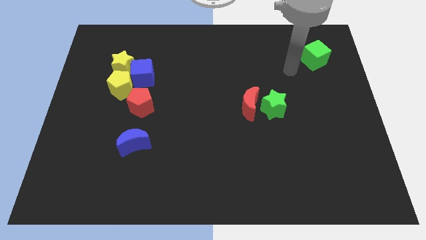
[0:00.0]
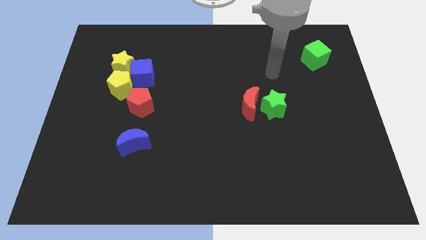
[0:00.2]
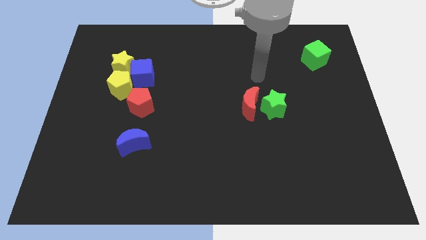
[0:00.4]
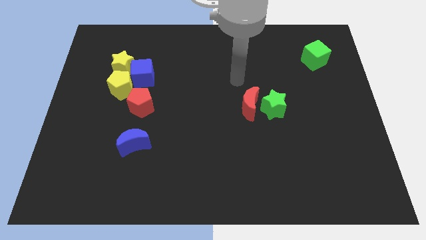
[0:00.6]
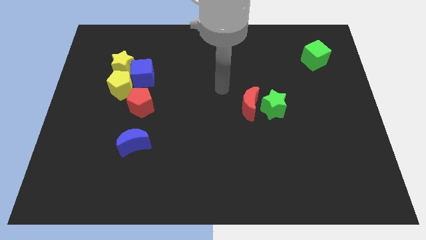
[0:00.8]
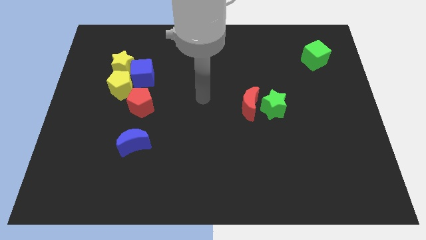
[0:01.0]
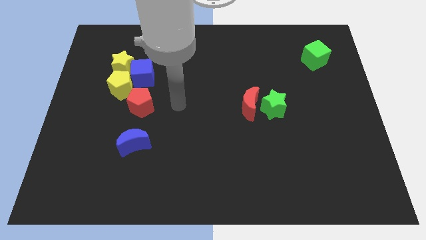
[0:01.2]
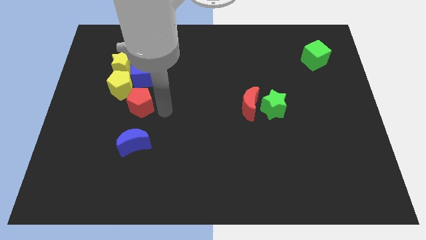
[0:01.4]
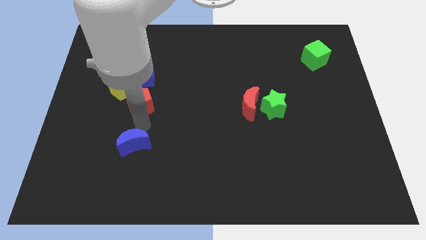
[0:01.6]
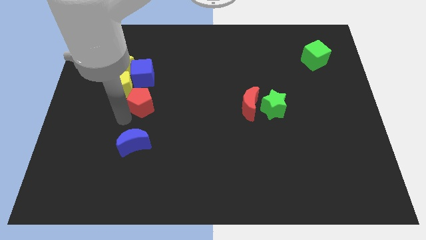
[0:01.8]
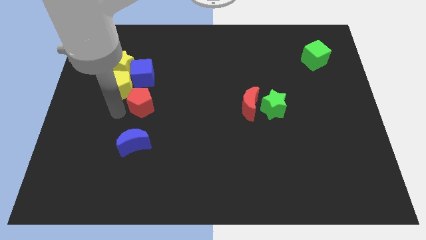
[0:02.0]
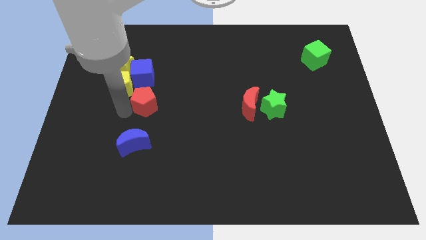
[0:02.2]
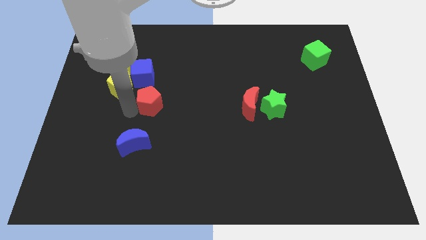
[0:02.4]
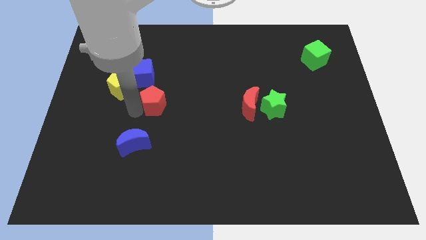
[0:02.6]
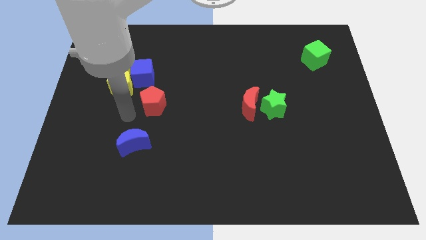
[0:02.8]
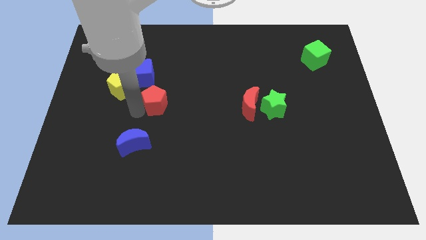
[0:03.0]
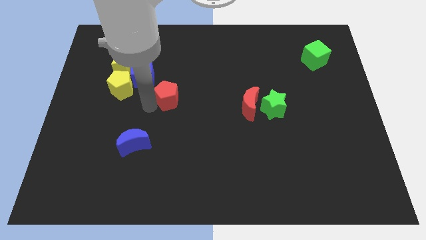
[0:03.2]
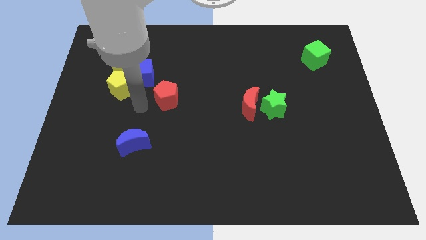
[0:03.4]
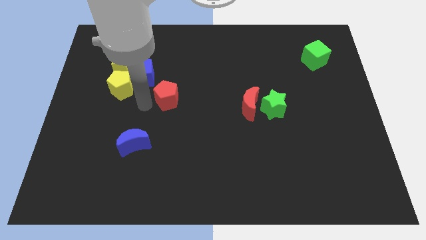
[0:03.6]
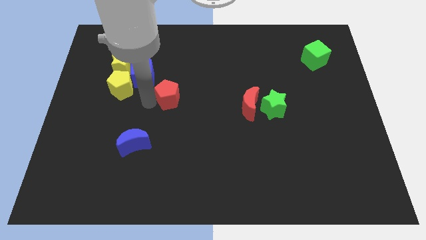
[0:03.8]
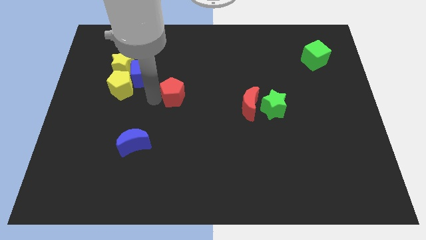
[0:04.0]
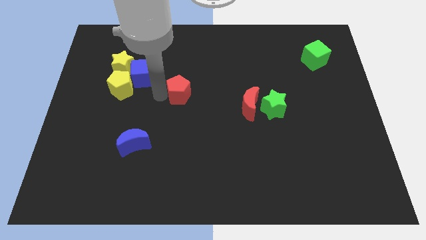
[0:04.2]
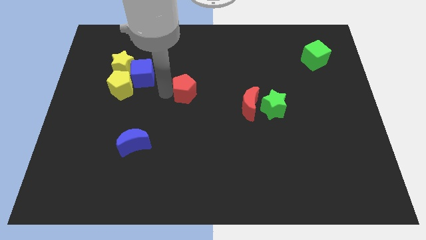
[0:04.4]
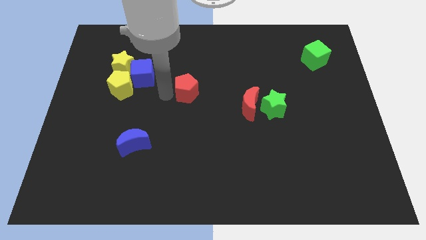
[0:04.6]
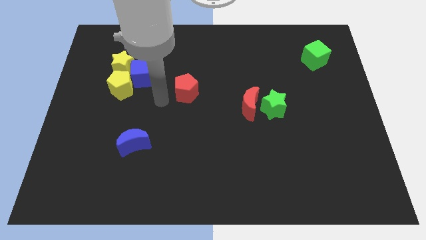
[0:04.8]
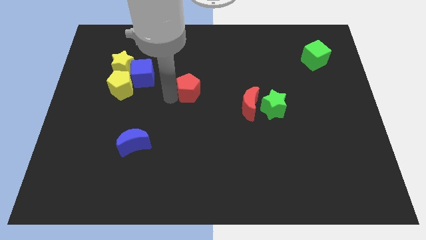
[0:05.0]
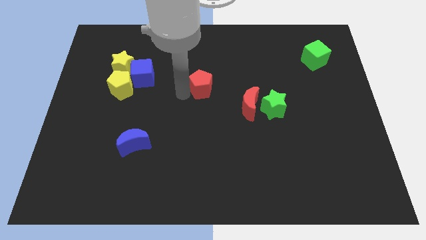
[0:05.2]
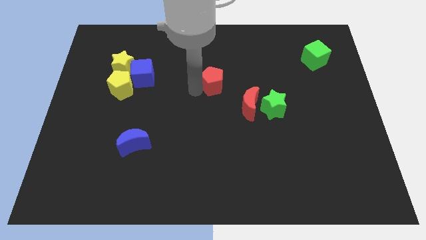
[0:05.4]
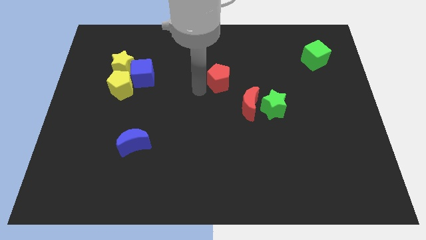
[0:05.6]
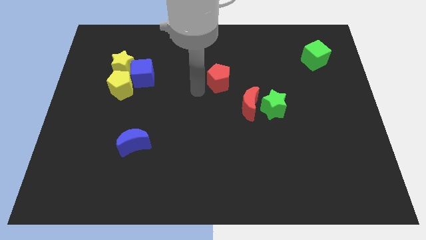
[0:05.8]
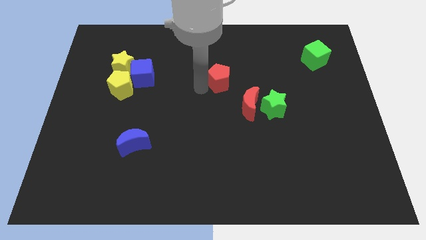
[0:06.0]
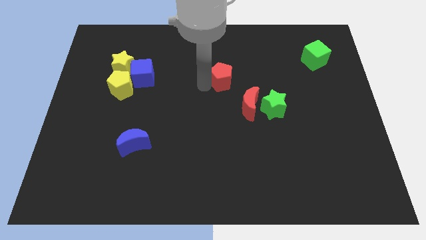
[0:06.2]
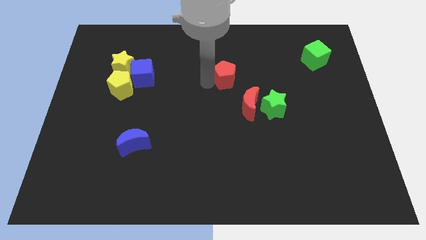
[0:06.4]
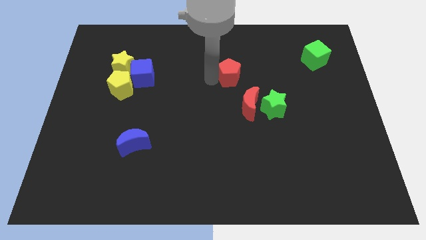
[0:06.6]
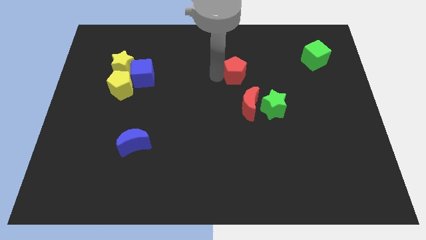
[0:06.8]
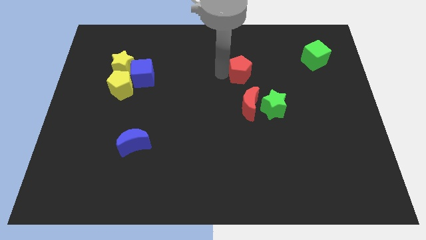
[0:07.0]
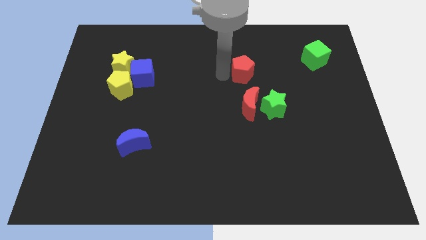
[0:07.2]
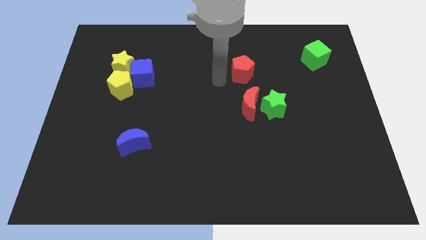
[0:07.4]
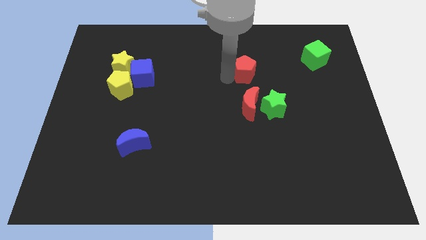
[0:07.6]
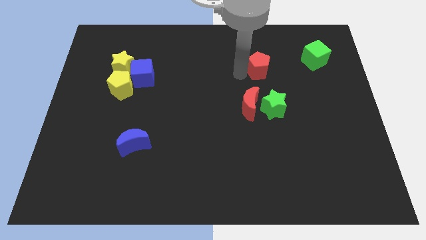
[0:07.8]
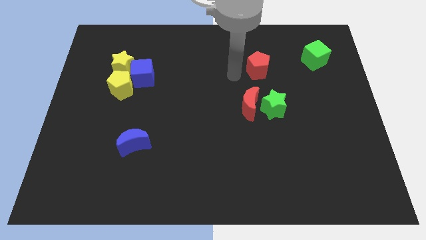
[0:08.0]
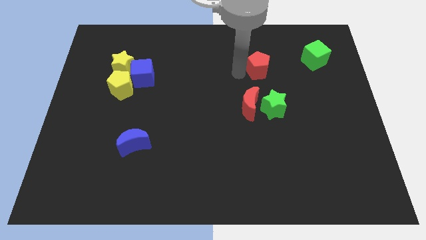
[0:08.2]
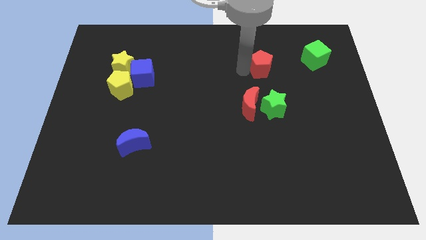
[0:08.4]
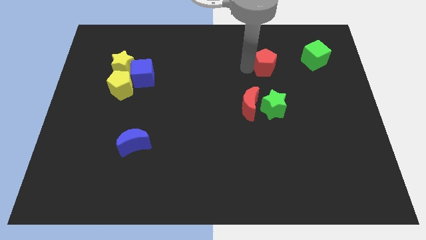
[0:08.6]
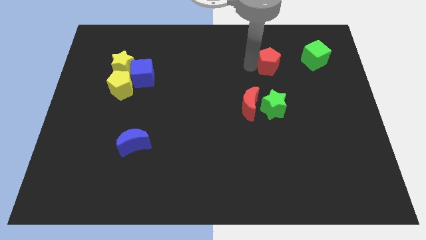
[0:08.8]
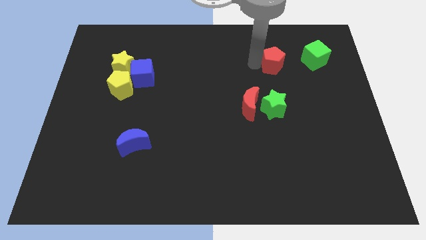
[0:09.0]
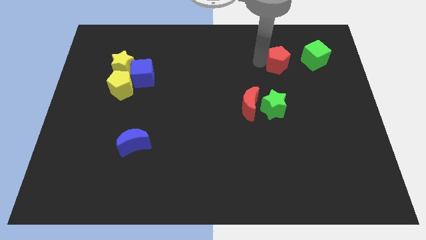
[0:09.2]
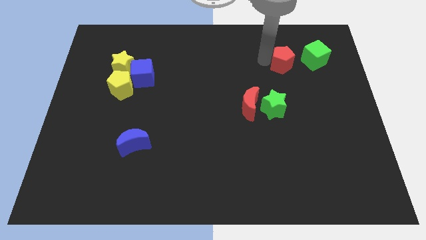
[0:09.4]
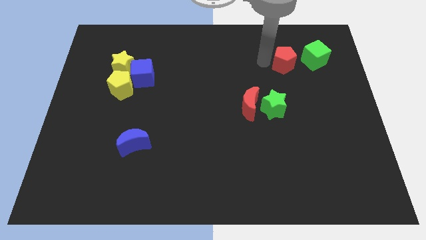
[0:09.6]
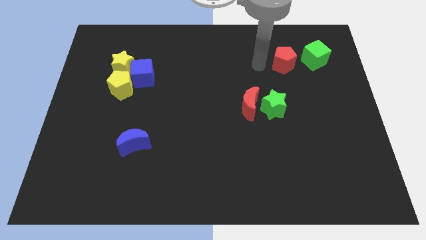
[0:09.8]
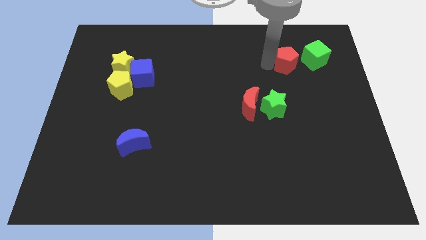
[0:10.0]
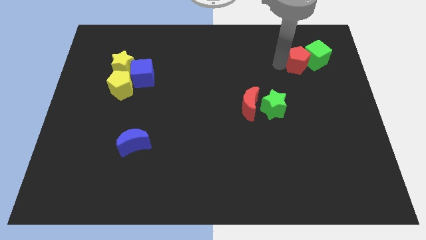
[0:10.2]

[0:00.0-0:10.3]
put the red pentagon next to the green cube

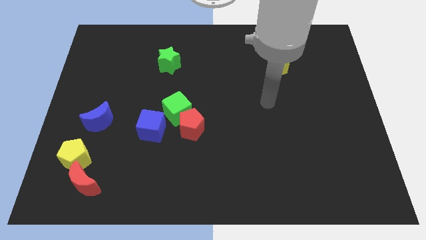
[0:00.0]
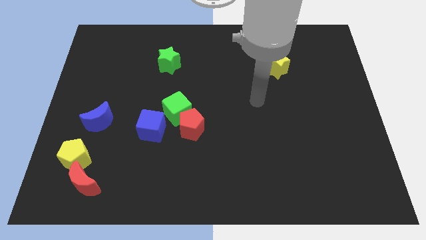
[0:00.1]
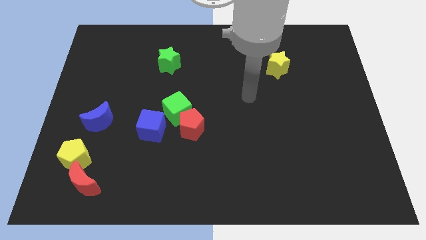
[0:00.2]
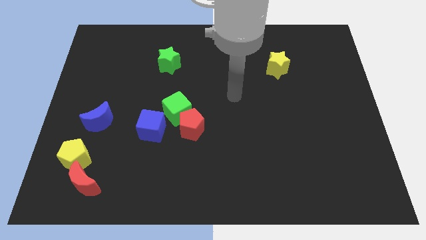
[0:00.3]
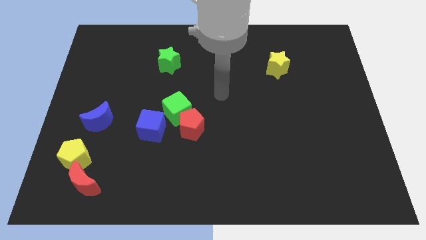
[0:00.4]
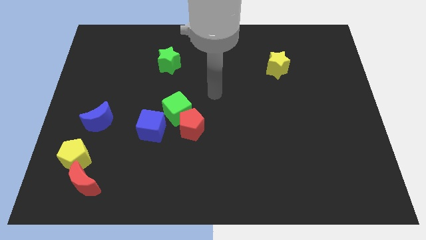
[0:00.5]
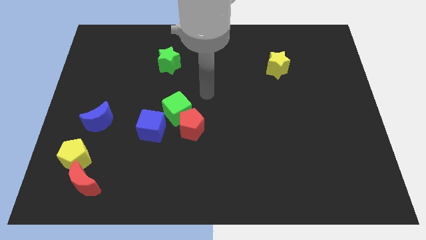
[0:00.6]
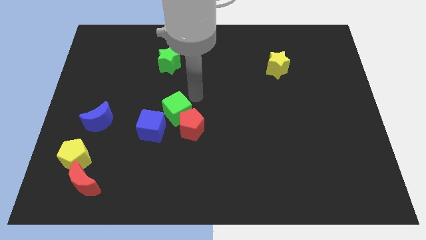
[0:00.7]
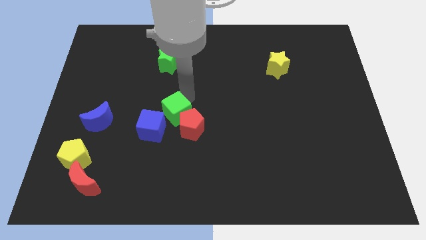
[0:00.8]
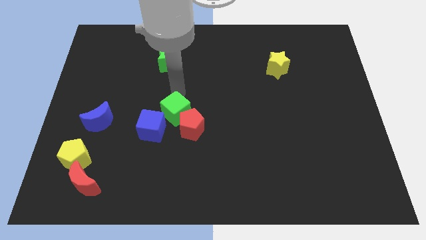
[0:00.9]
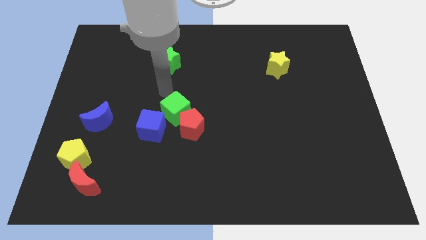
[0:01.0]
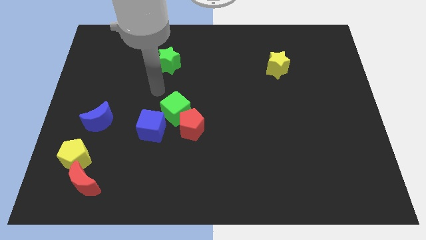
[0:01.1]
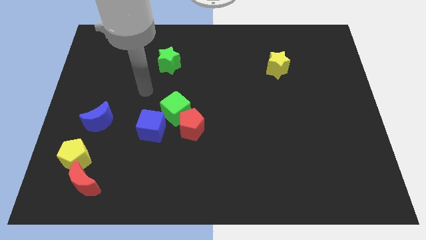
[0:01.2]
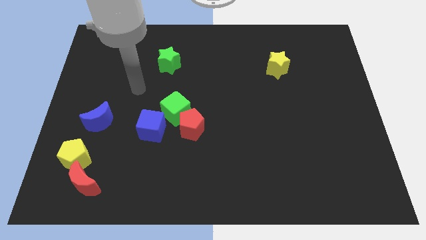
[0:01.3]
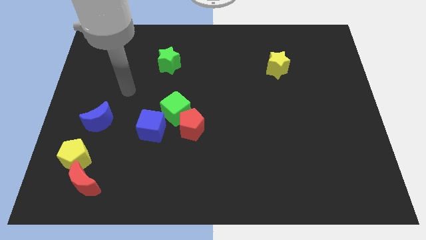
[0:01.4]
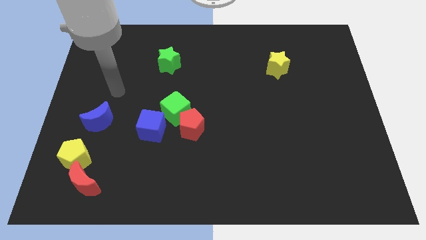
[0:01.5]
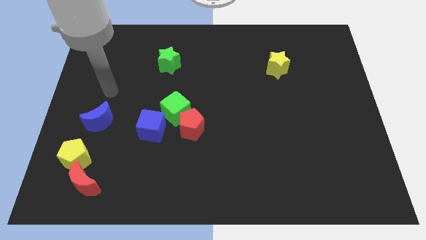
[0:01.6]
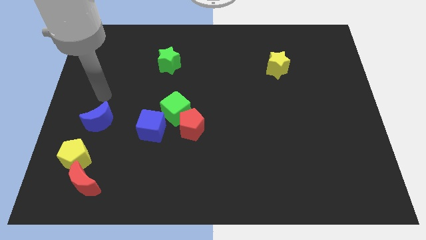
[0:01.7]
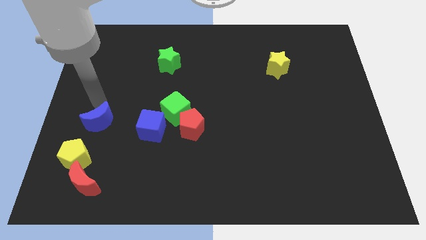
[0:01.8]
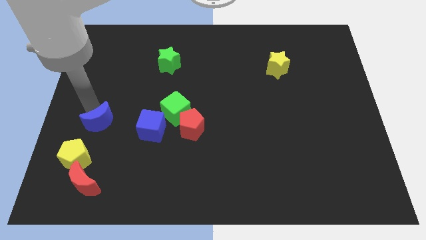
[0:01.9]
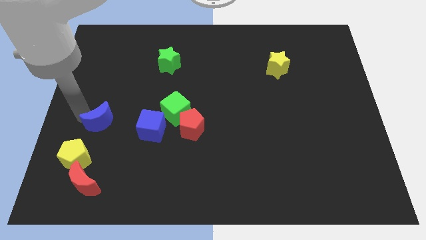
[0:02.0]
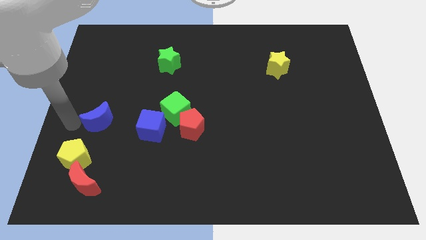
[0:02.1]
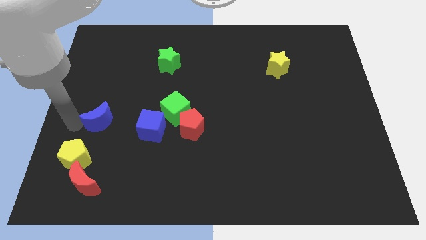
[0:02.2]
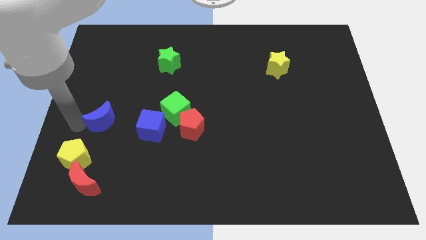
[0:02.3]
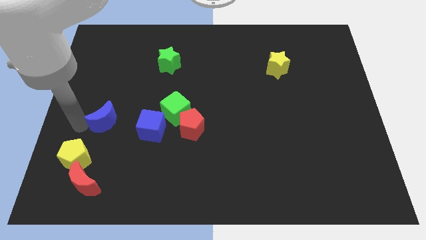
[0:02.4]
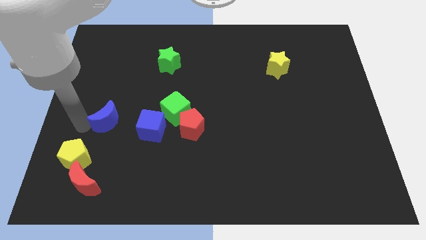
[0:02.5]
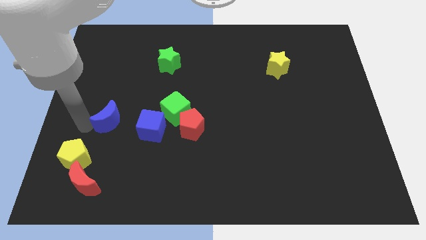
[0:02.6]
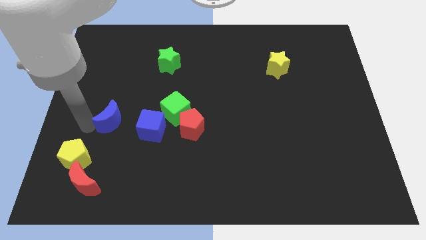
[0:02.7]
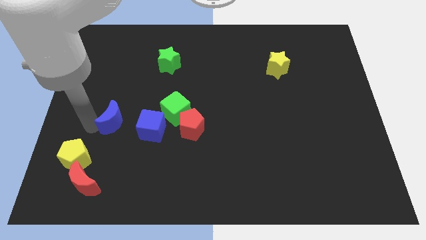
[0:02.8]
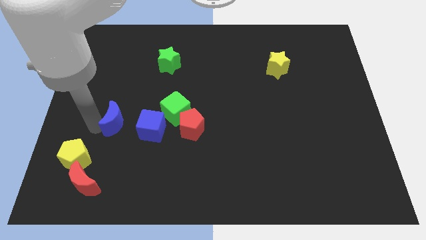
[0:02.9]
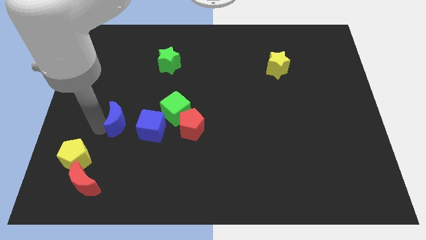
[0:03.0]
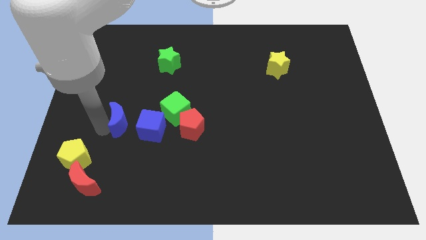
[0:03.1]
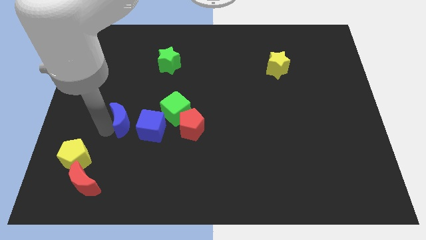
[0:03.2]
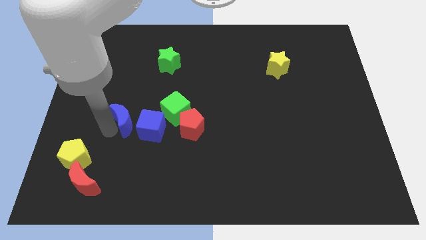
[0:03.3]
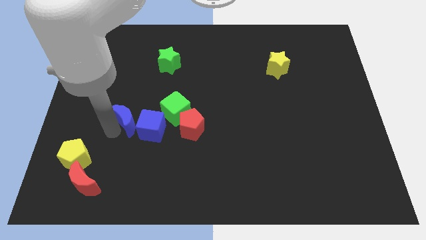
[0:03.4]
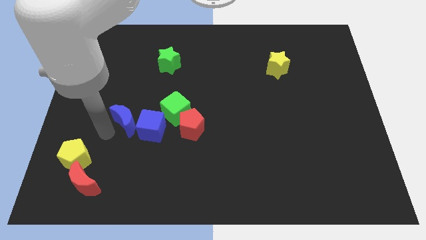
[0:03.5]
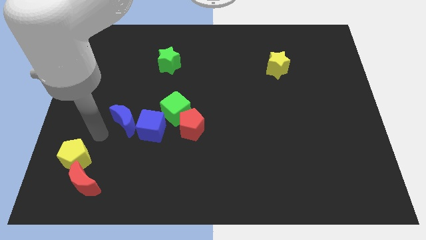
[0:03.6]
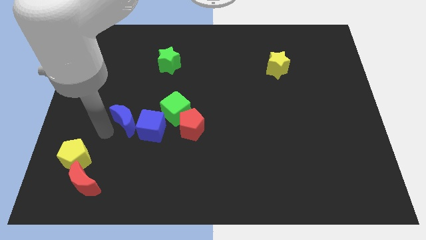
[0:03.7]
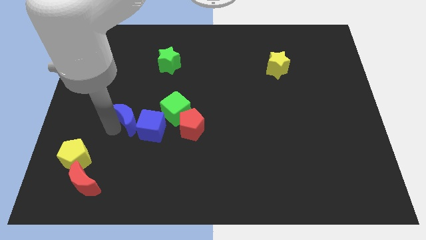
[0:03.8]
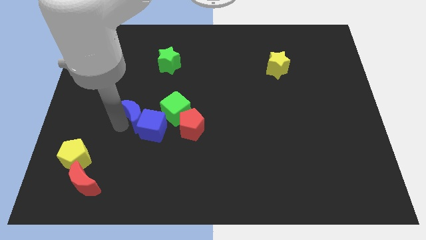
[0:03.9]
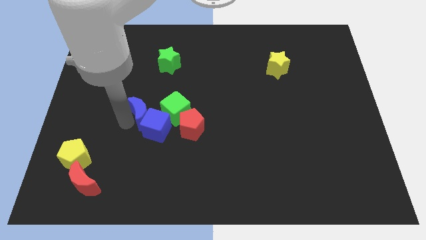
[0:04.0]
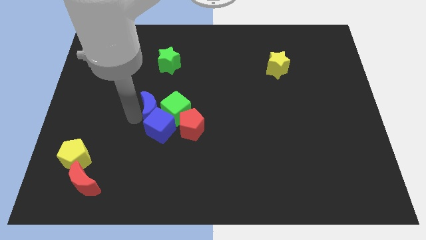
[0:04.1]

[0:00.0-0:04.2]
push the blue moon next to the green cube
